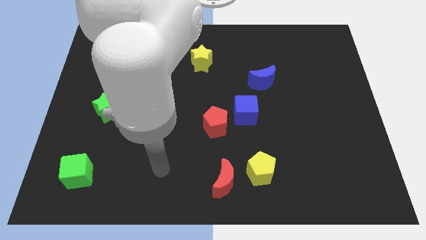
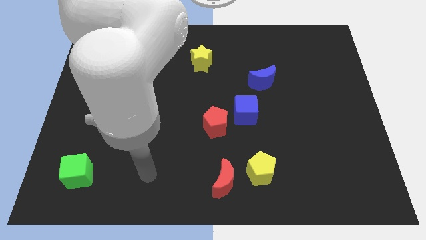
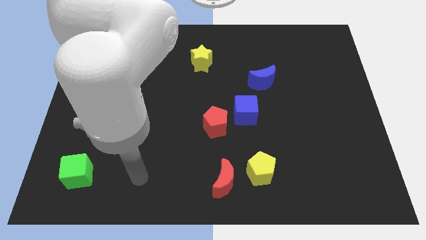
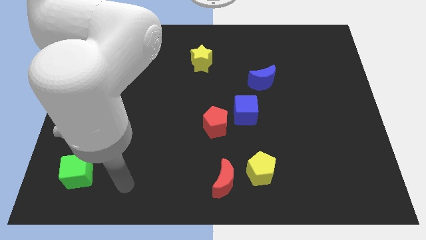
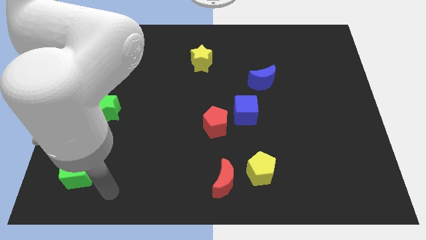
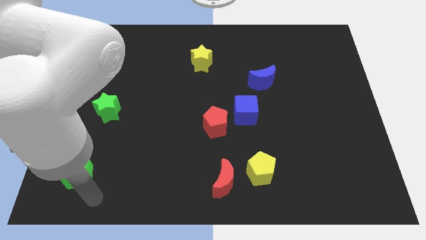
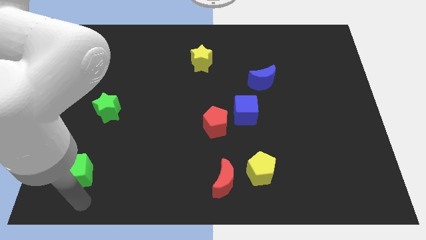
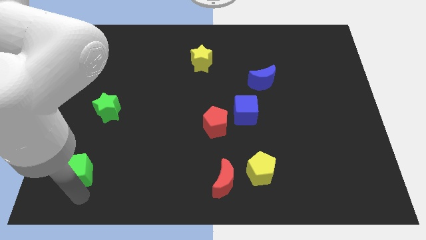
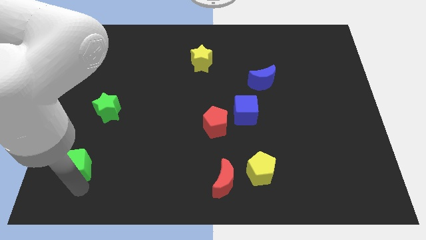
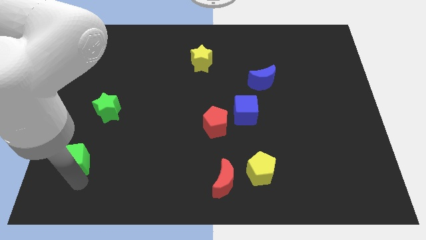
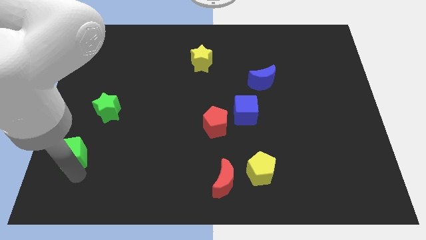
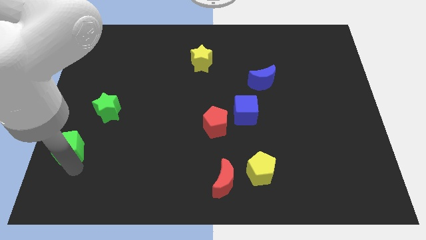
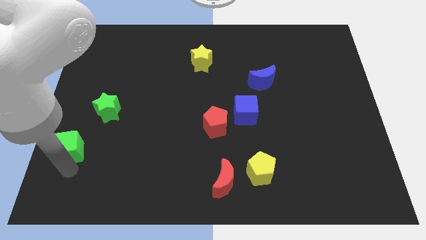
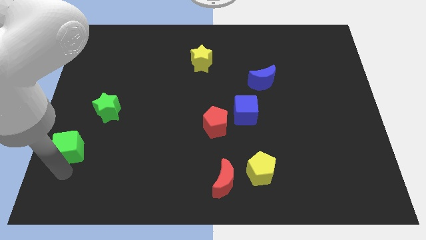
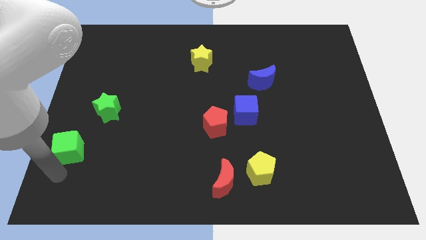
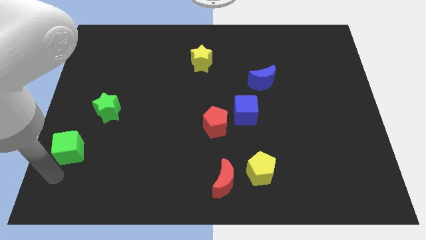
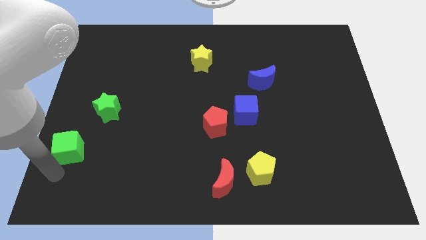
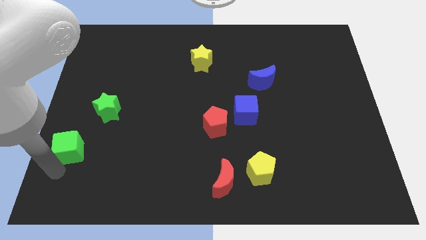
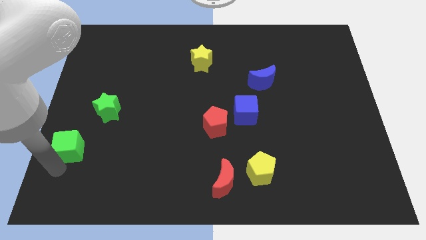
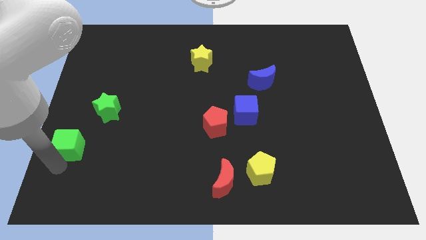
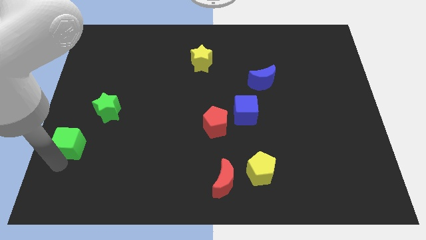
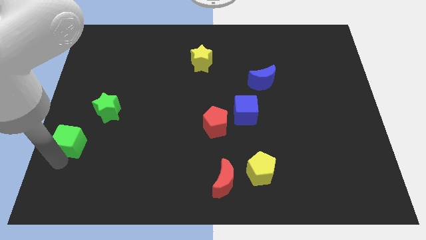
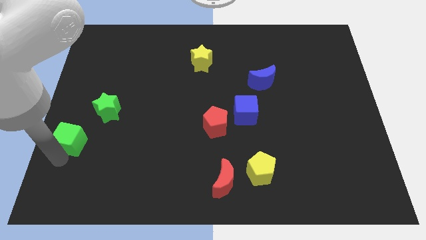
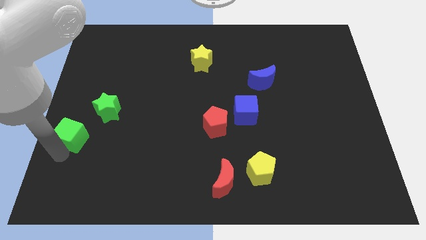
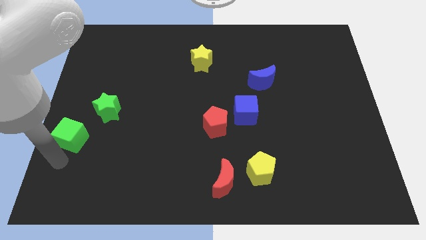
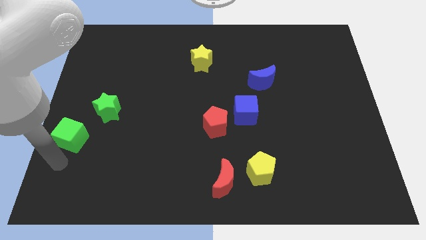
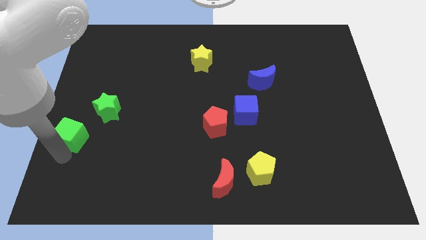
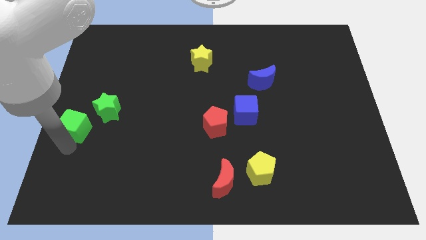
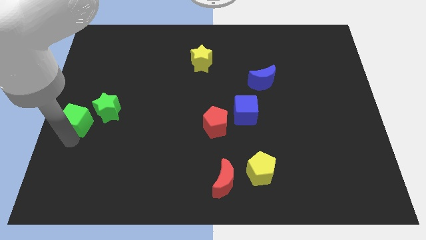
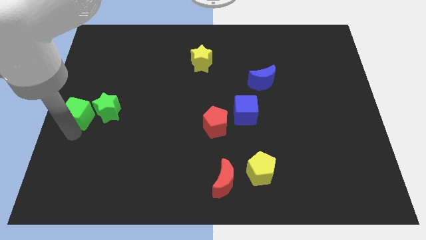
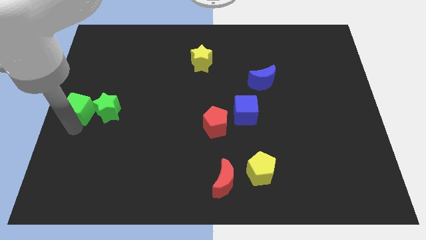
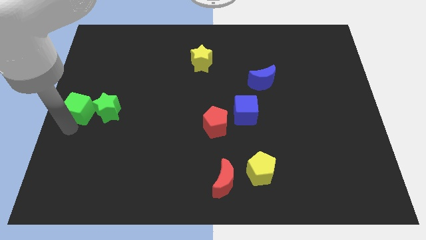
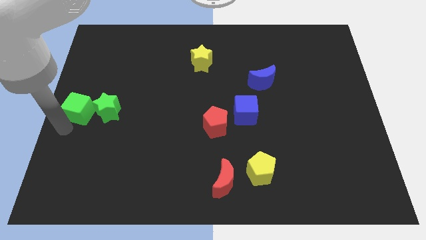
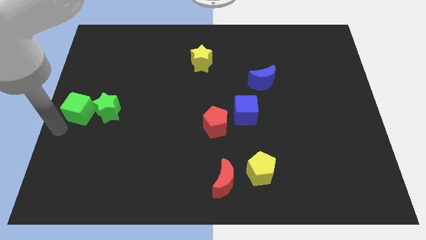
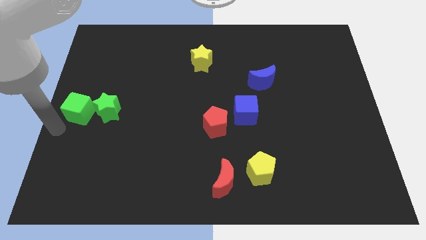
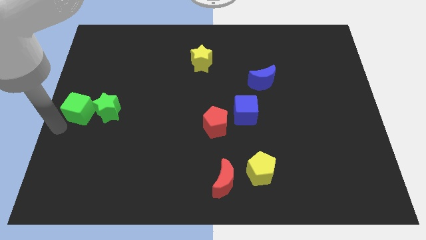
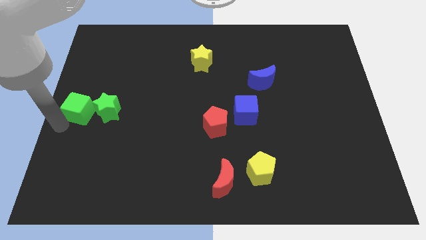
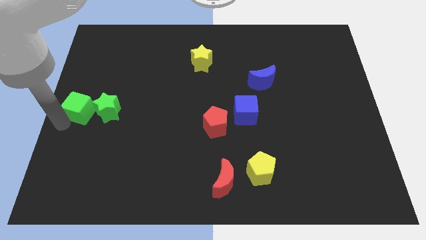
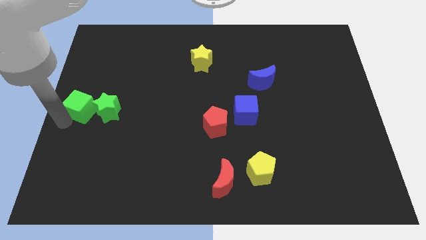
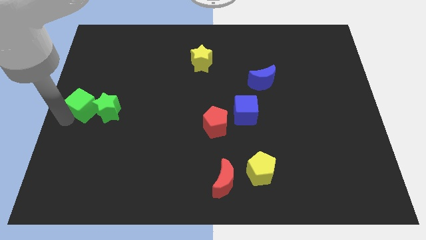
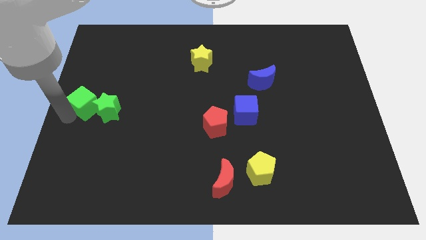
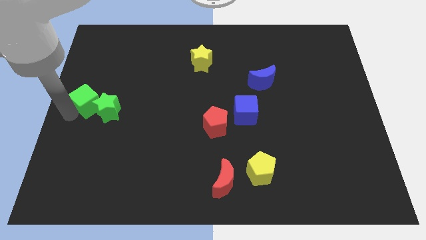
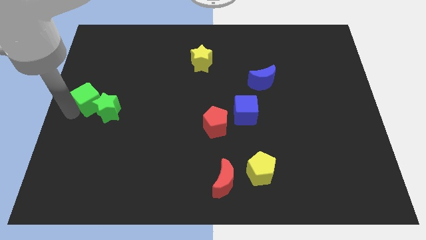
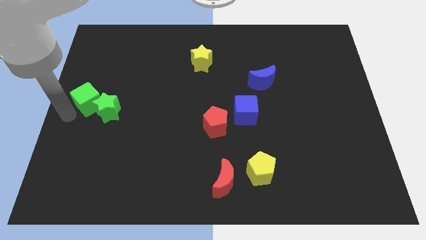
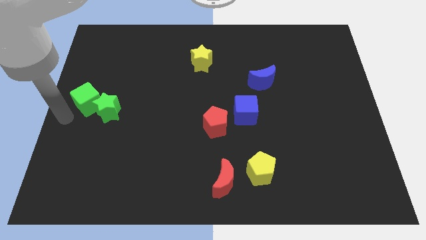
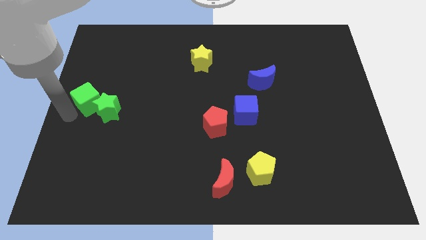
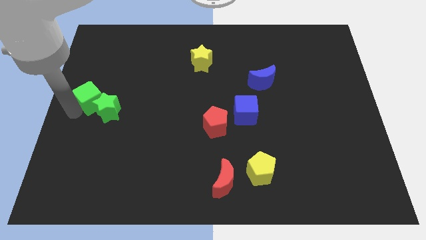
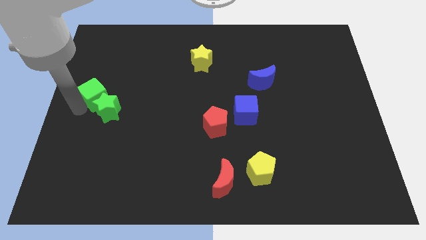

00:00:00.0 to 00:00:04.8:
push the green cube to the top side of the green star

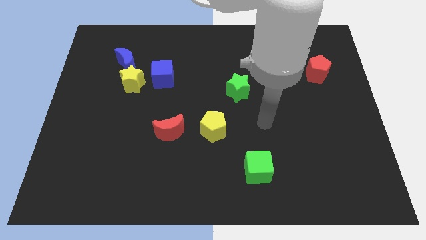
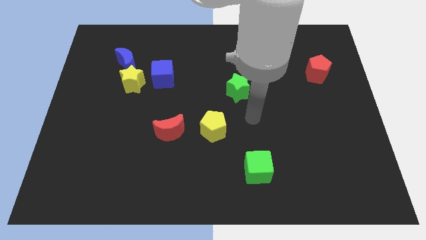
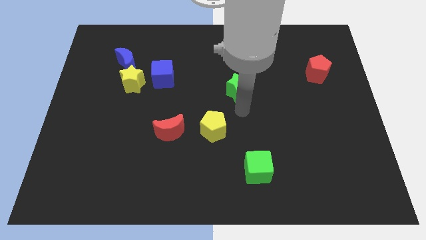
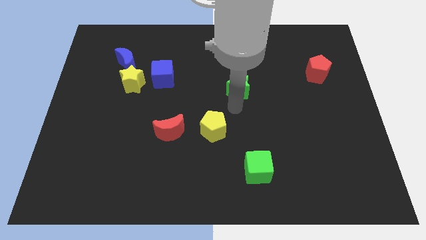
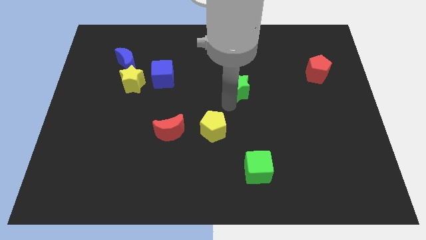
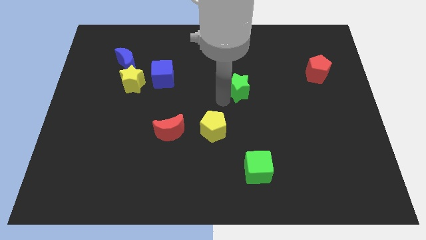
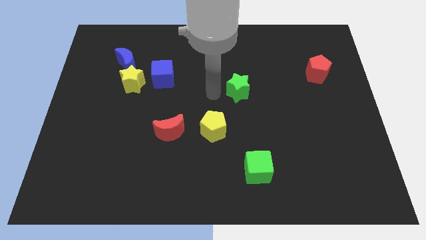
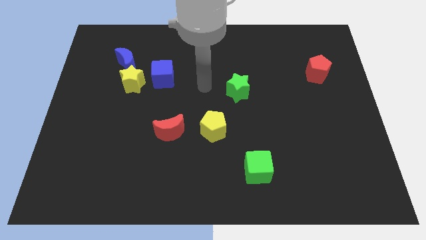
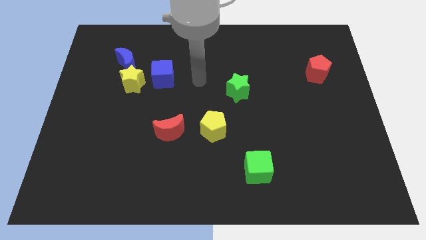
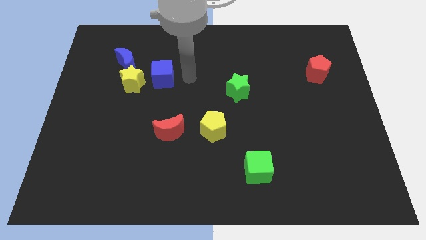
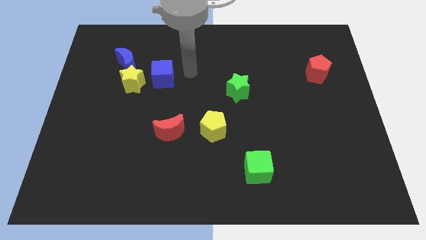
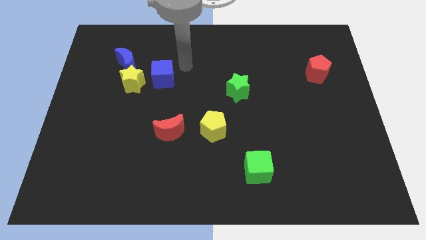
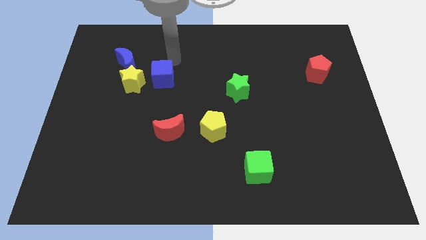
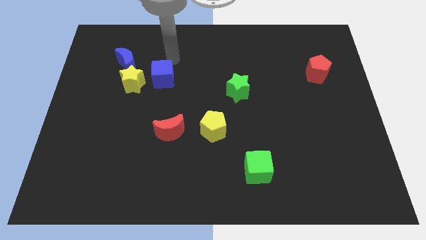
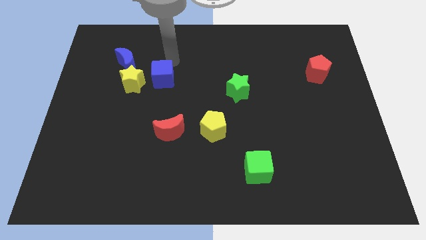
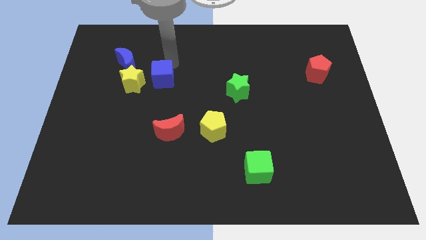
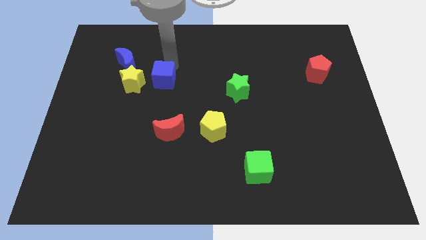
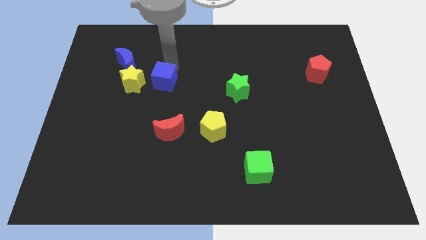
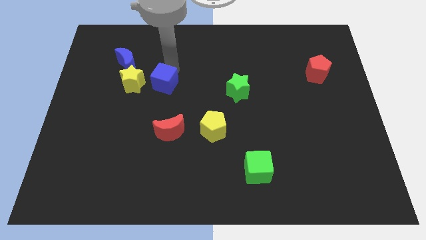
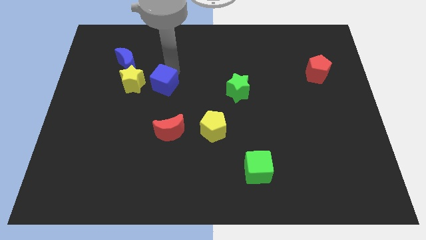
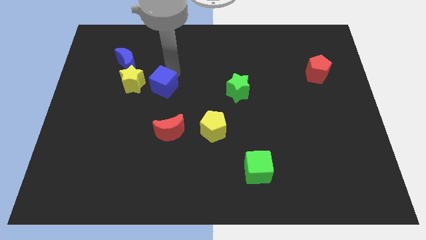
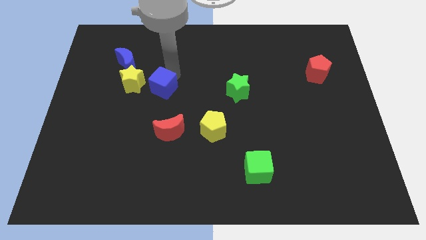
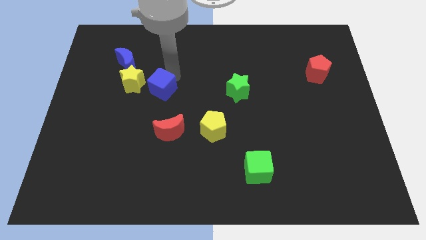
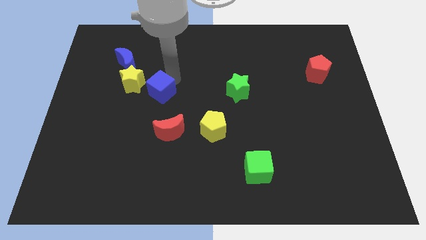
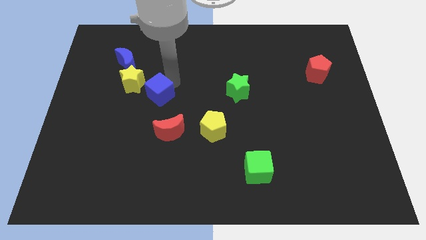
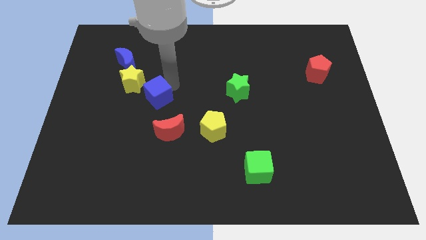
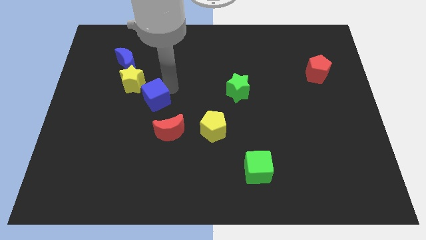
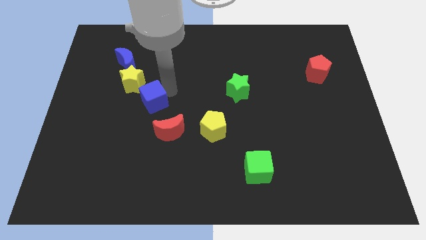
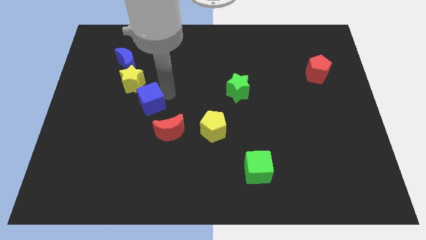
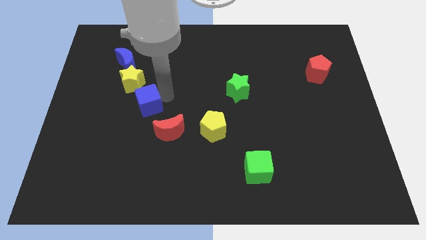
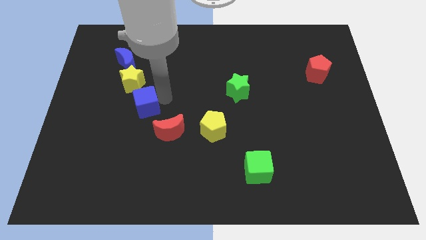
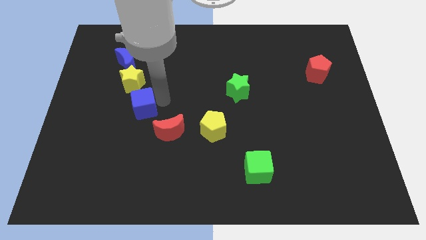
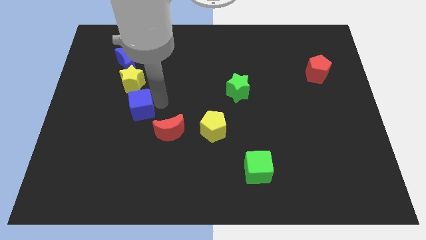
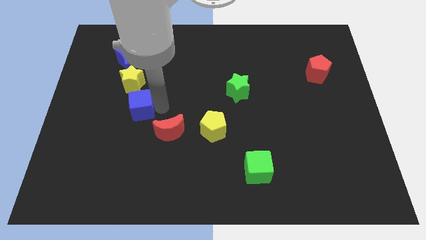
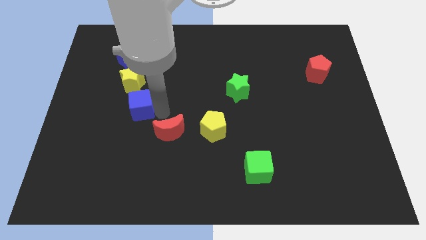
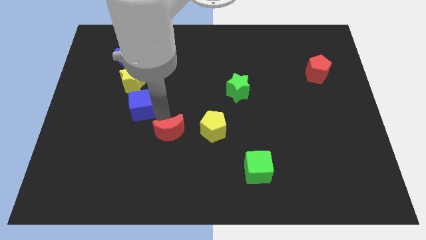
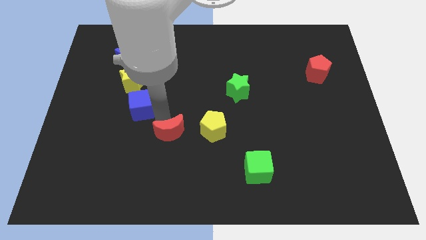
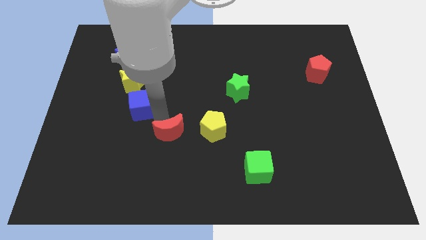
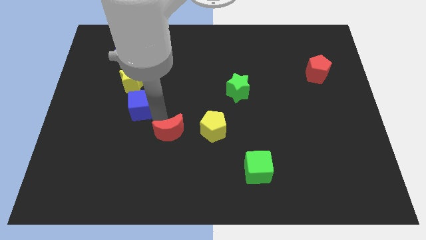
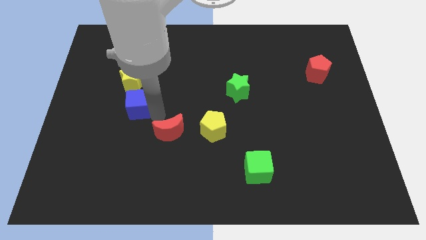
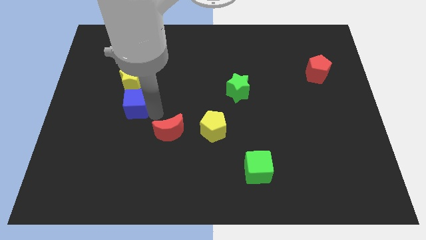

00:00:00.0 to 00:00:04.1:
push the blue cube to the bottom side of the blue moon
